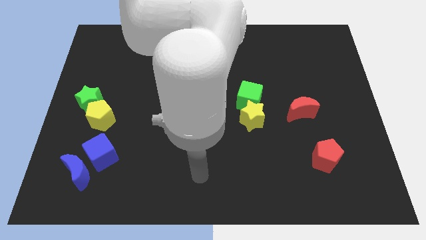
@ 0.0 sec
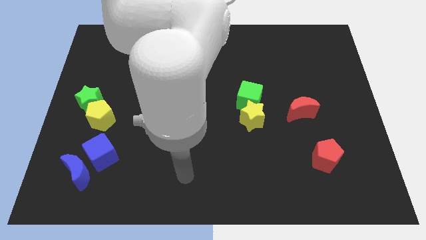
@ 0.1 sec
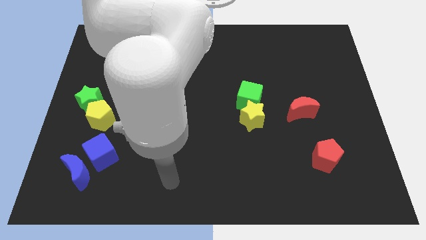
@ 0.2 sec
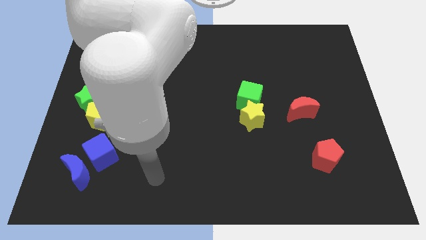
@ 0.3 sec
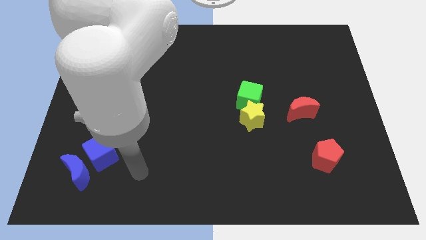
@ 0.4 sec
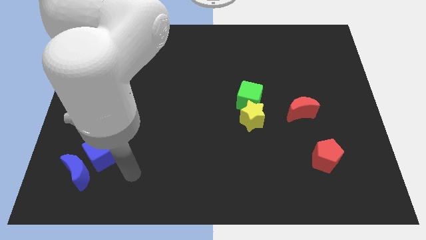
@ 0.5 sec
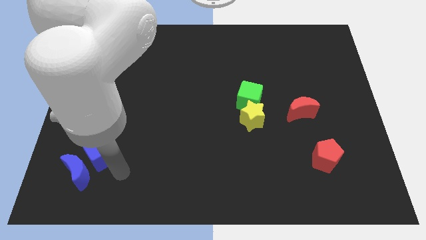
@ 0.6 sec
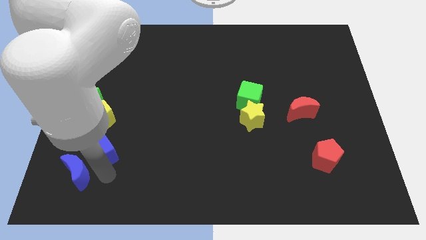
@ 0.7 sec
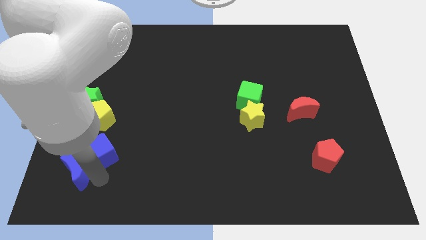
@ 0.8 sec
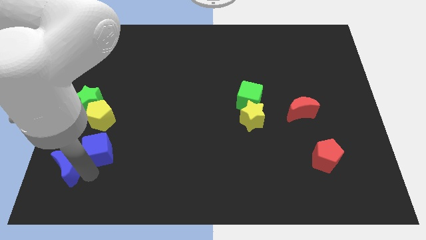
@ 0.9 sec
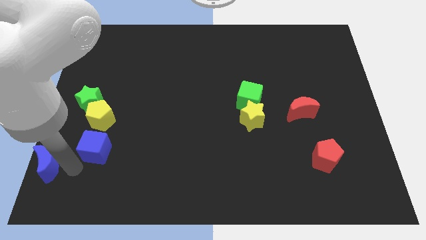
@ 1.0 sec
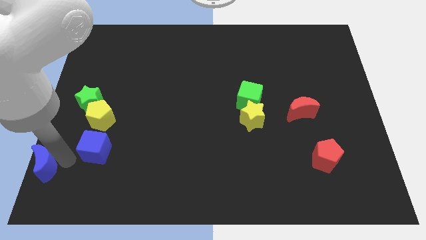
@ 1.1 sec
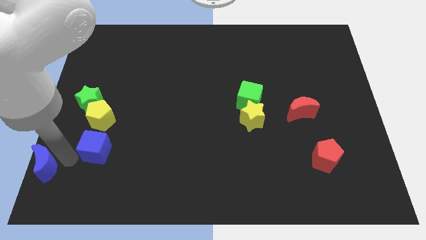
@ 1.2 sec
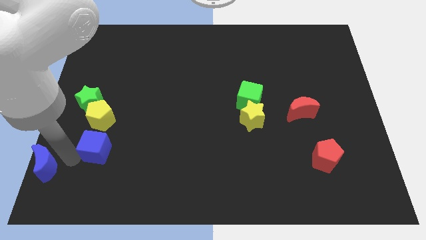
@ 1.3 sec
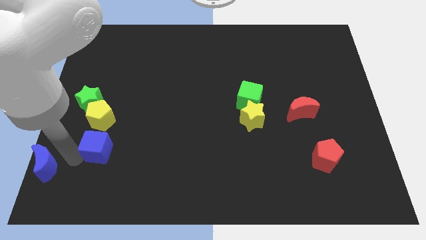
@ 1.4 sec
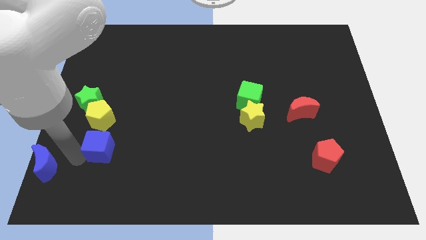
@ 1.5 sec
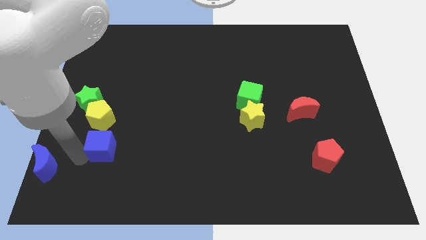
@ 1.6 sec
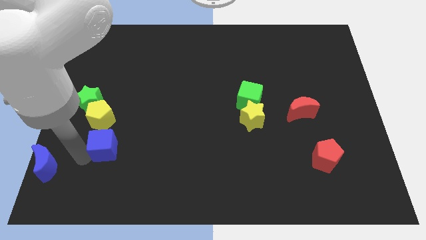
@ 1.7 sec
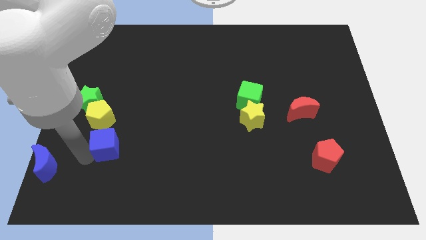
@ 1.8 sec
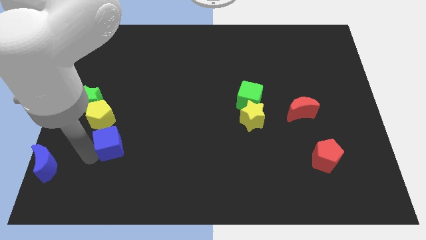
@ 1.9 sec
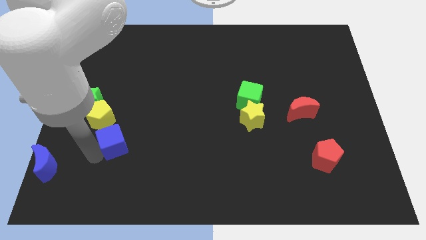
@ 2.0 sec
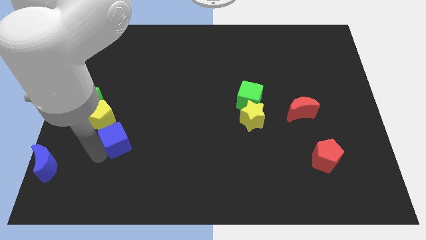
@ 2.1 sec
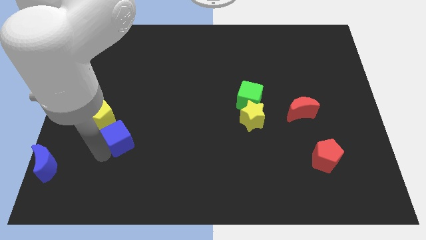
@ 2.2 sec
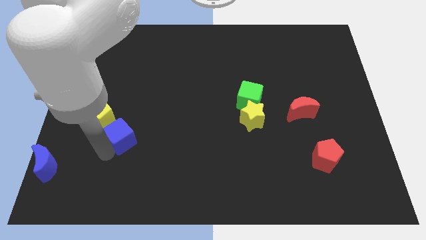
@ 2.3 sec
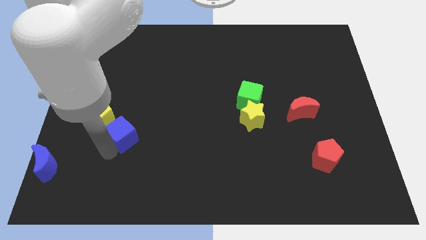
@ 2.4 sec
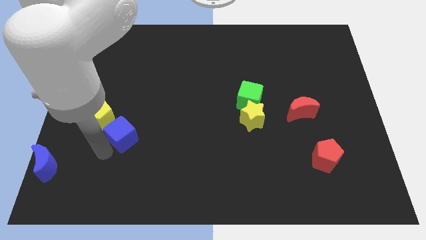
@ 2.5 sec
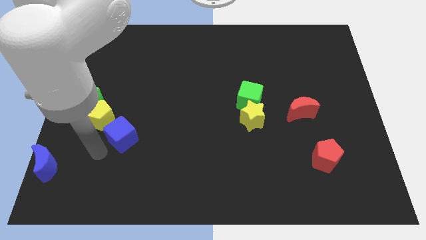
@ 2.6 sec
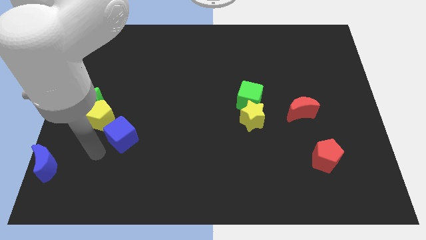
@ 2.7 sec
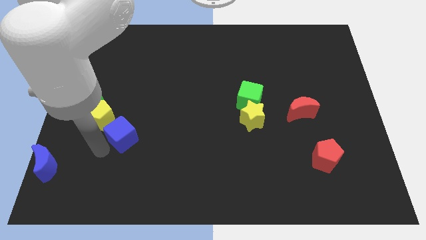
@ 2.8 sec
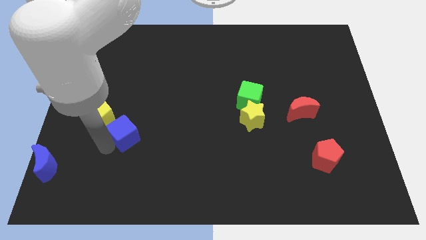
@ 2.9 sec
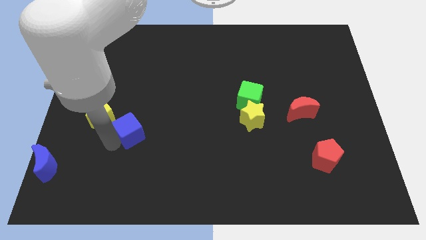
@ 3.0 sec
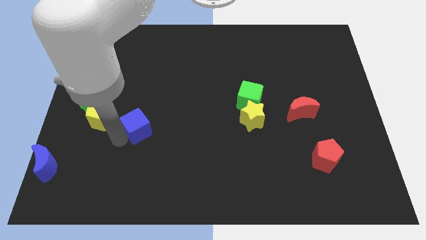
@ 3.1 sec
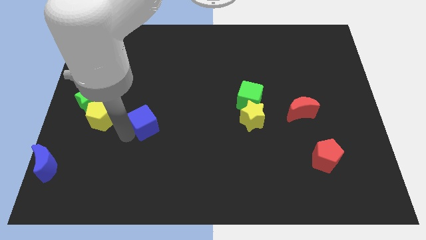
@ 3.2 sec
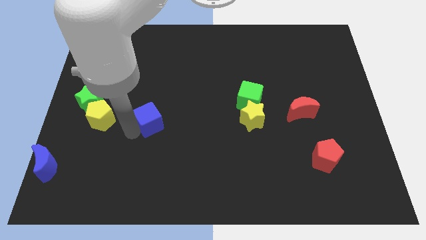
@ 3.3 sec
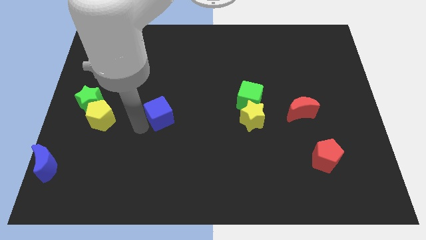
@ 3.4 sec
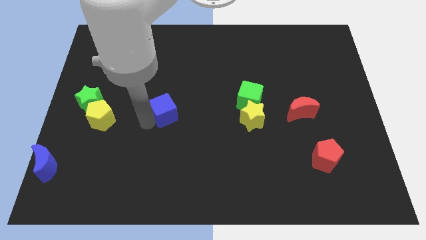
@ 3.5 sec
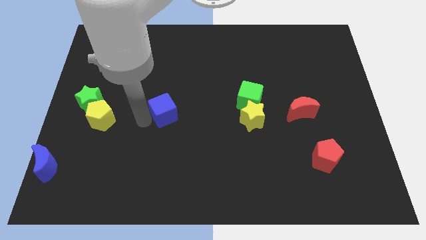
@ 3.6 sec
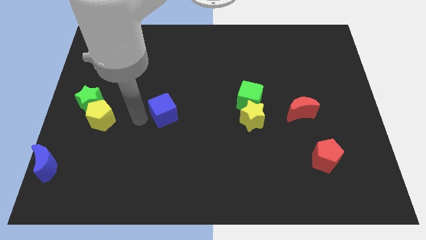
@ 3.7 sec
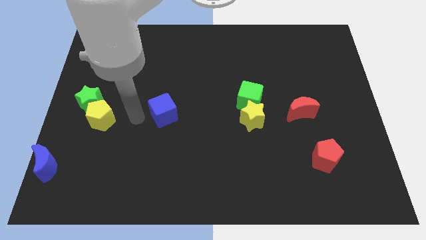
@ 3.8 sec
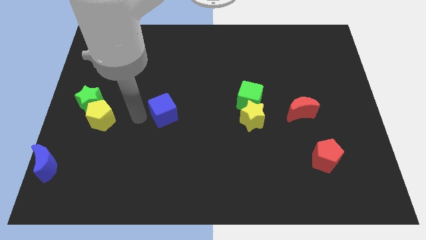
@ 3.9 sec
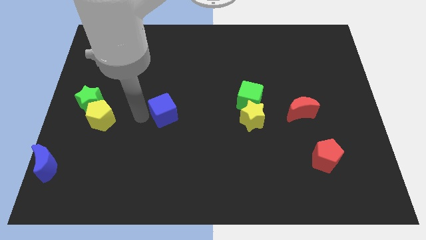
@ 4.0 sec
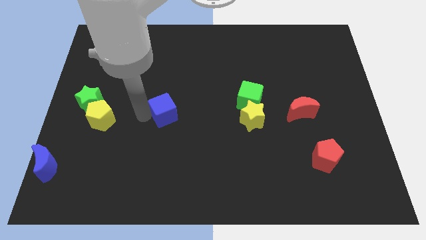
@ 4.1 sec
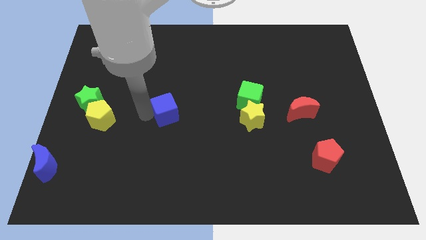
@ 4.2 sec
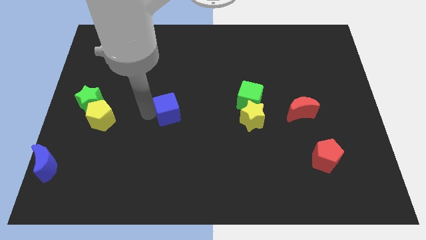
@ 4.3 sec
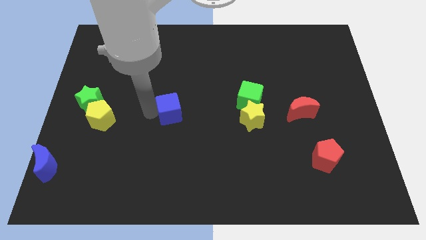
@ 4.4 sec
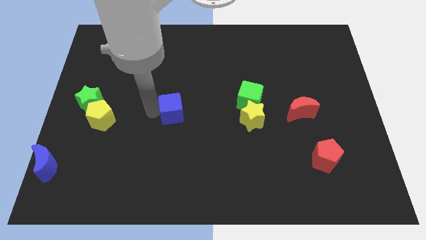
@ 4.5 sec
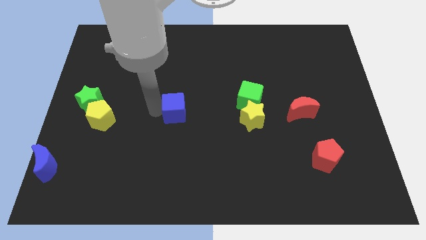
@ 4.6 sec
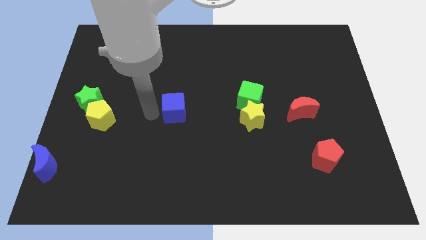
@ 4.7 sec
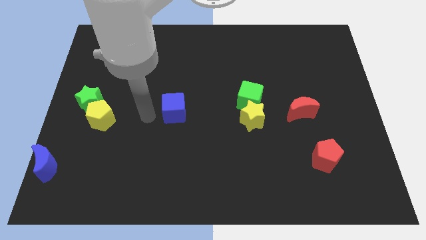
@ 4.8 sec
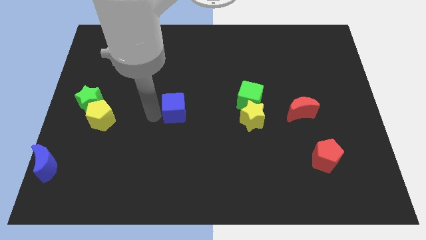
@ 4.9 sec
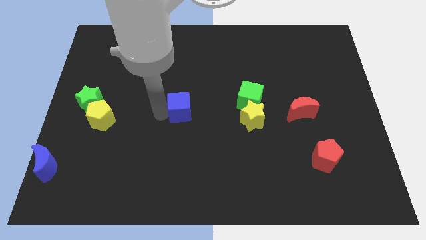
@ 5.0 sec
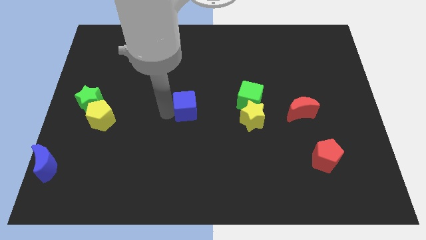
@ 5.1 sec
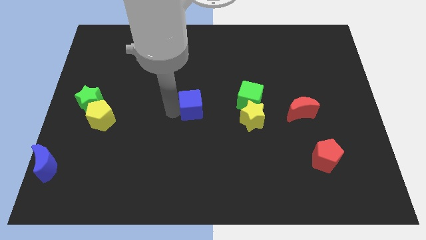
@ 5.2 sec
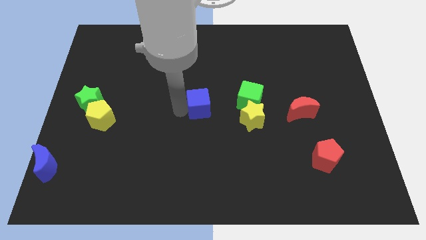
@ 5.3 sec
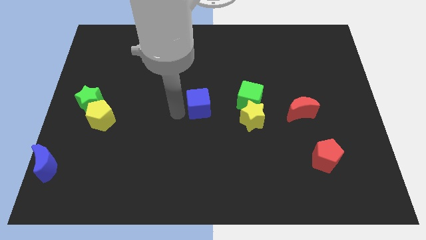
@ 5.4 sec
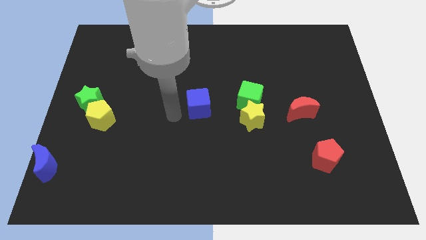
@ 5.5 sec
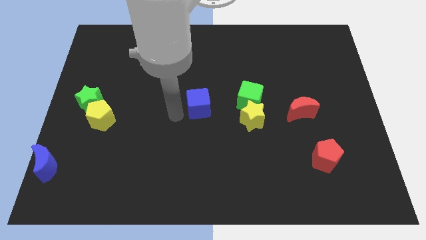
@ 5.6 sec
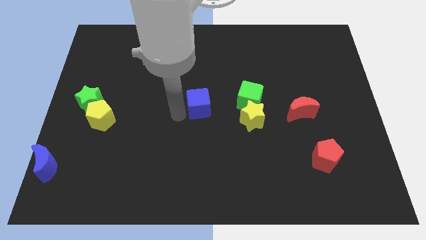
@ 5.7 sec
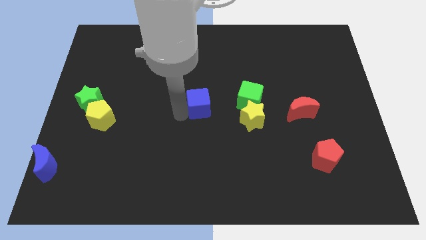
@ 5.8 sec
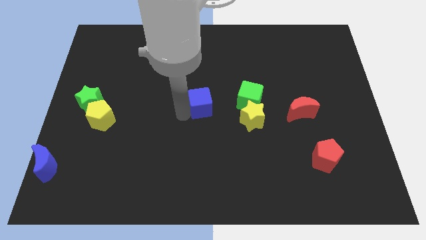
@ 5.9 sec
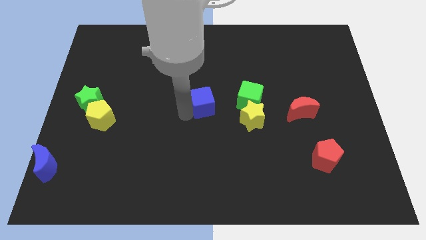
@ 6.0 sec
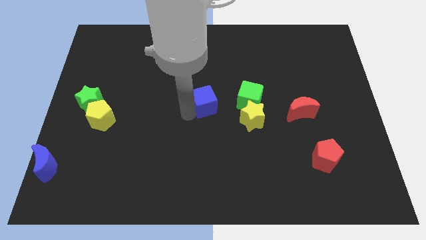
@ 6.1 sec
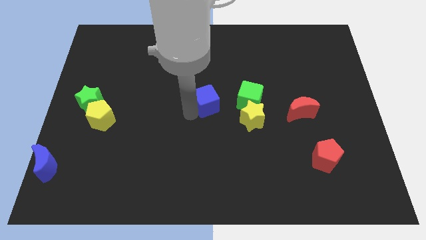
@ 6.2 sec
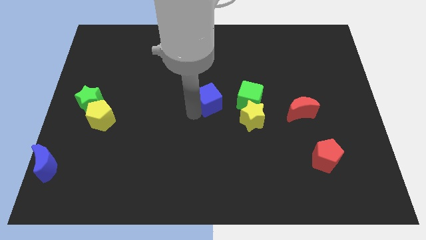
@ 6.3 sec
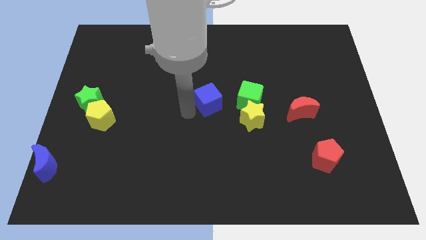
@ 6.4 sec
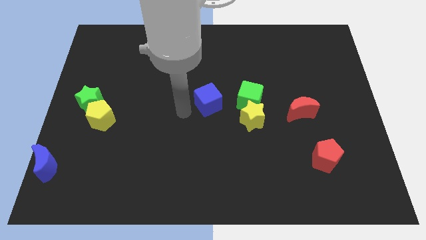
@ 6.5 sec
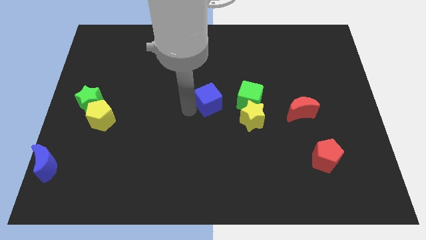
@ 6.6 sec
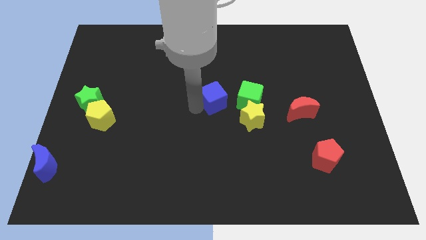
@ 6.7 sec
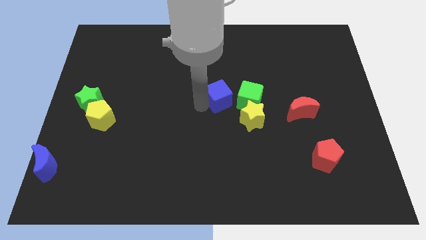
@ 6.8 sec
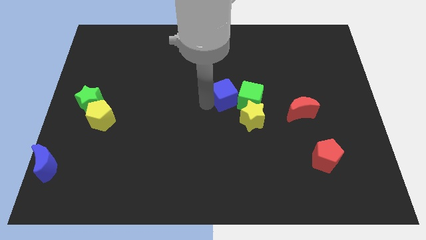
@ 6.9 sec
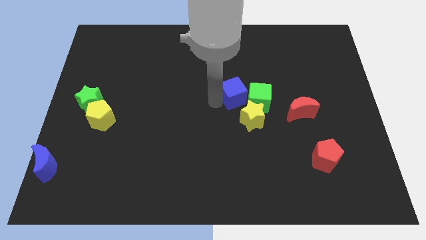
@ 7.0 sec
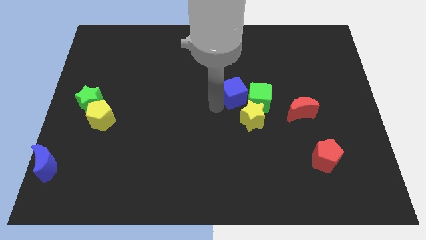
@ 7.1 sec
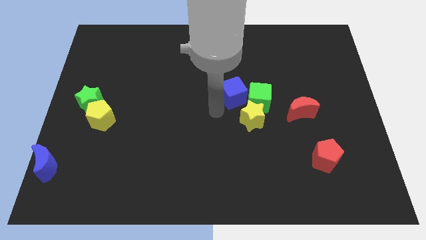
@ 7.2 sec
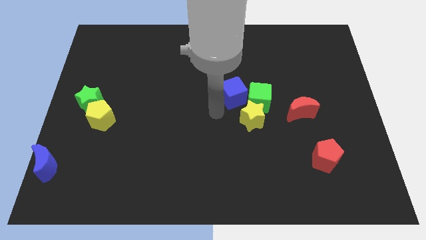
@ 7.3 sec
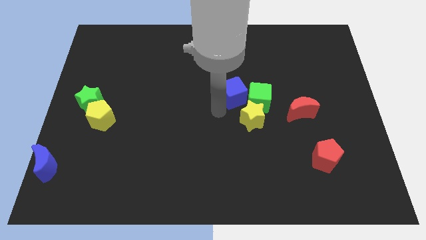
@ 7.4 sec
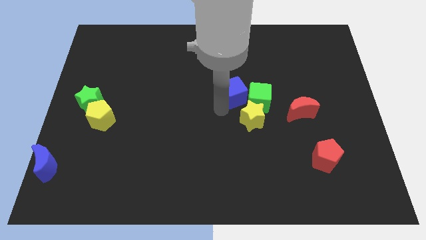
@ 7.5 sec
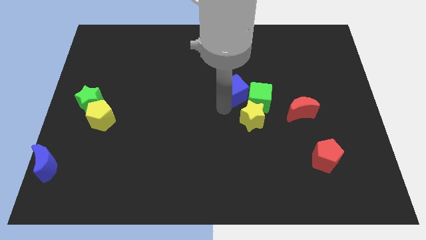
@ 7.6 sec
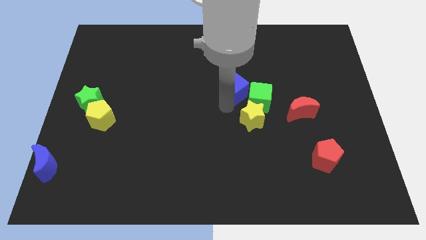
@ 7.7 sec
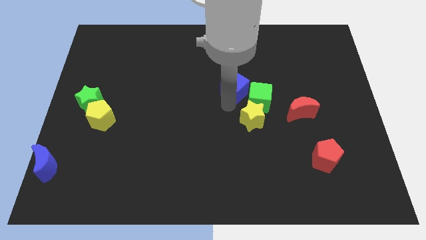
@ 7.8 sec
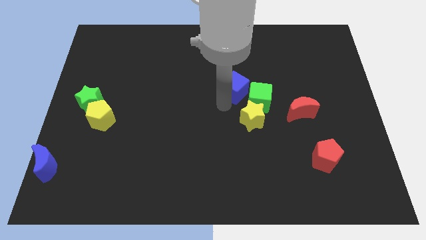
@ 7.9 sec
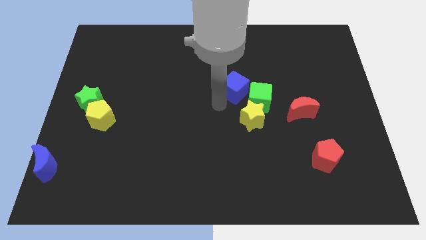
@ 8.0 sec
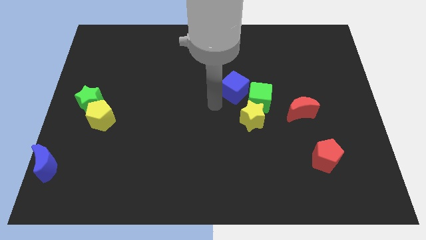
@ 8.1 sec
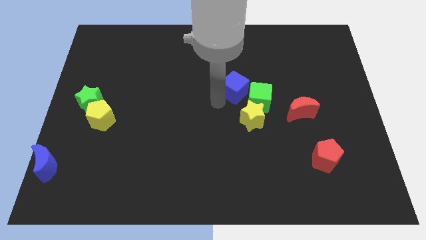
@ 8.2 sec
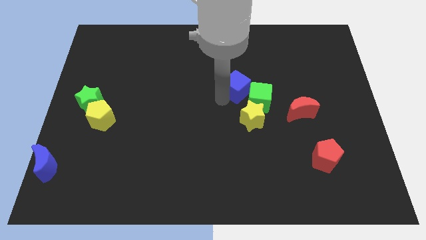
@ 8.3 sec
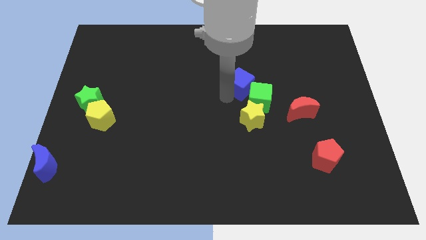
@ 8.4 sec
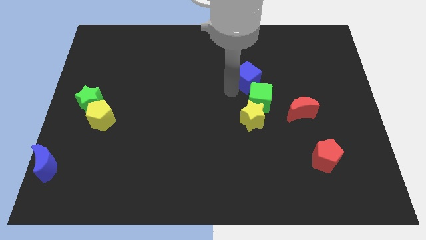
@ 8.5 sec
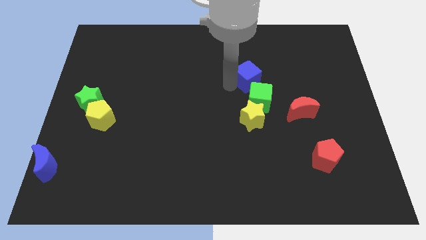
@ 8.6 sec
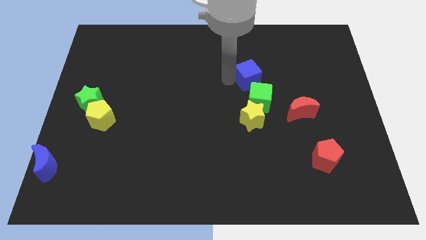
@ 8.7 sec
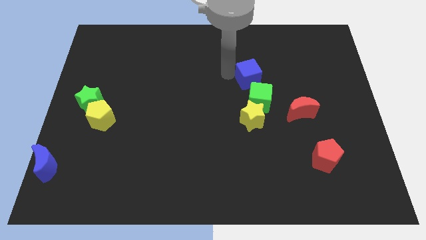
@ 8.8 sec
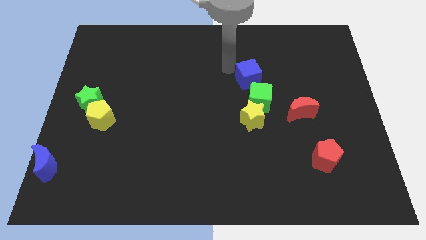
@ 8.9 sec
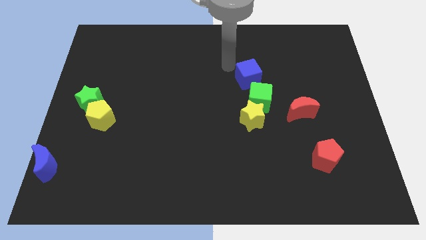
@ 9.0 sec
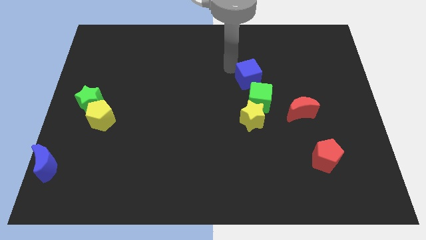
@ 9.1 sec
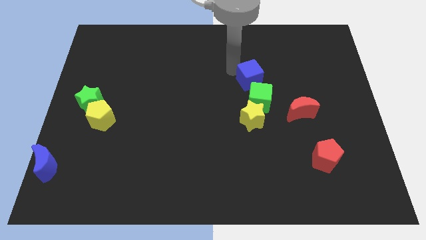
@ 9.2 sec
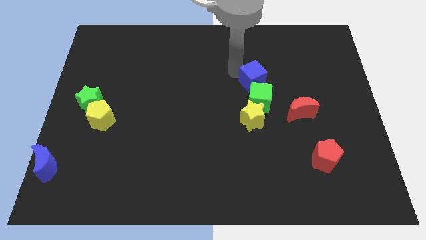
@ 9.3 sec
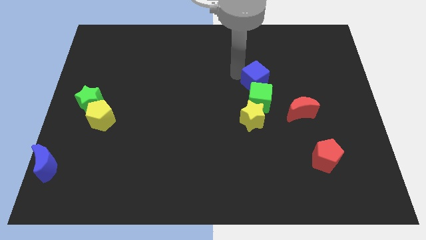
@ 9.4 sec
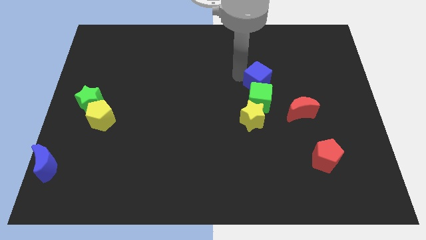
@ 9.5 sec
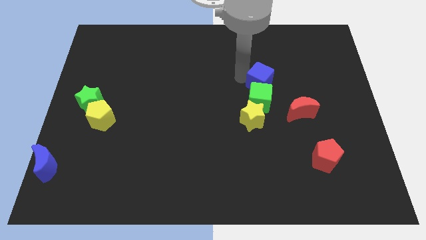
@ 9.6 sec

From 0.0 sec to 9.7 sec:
push the blue cube diagonally up and to the left of the red moon
